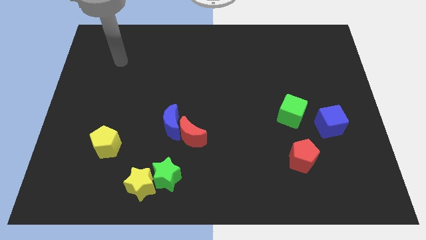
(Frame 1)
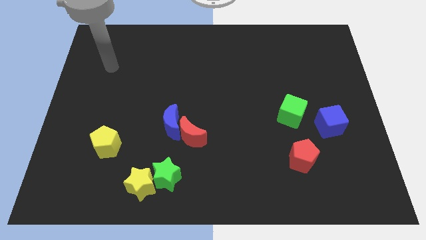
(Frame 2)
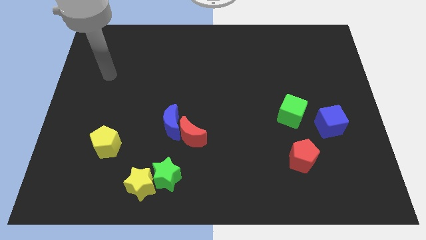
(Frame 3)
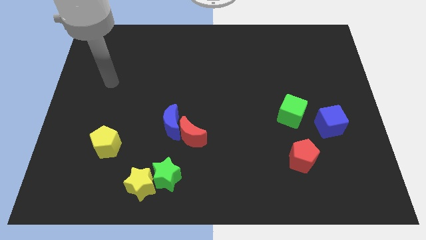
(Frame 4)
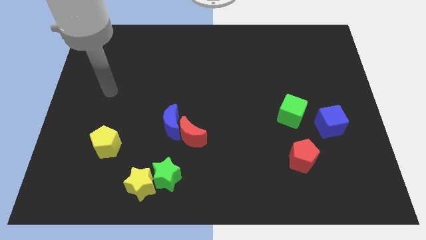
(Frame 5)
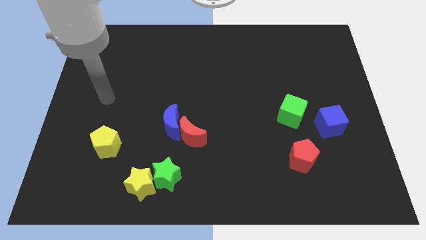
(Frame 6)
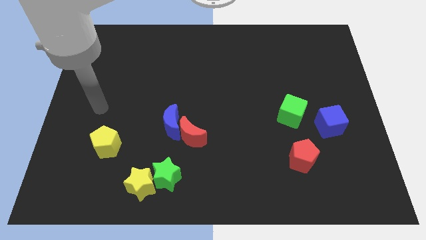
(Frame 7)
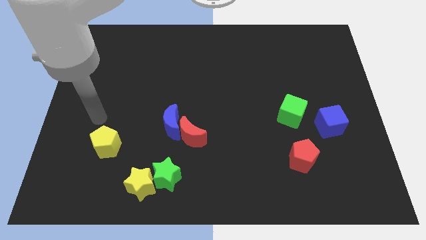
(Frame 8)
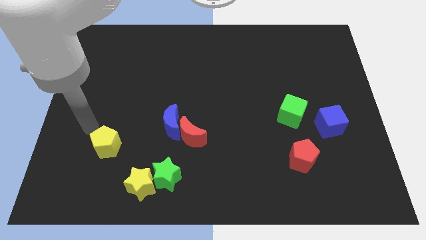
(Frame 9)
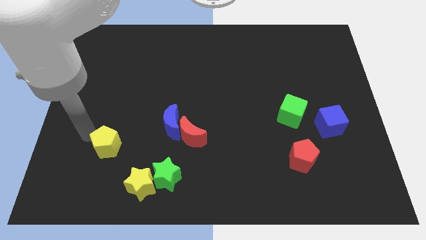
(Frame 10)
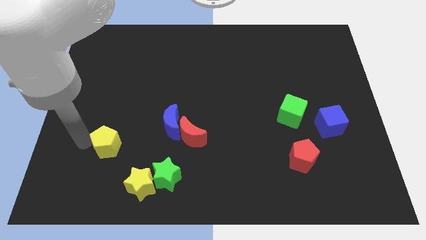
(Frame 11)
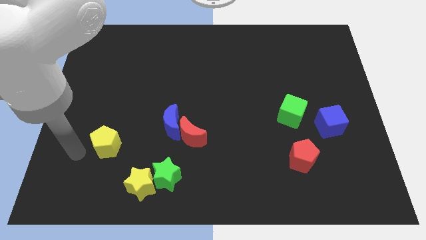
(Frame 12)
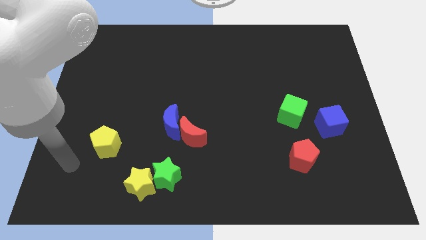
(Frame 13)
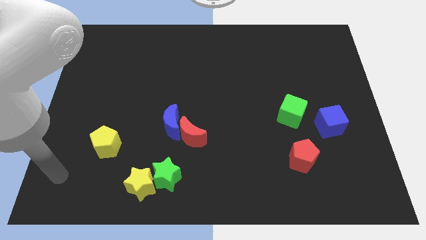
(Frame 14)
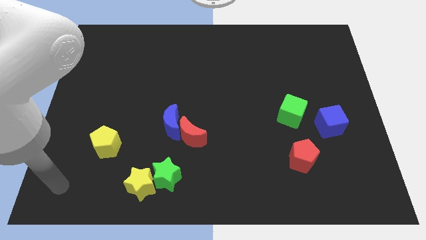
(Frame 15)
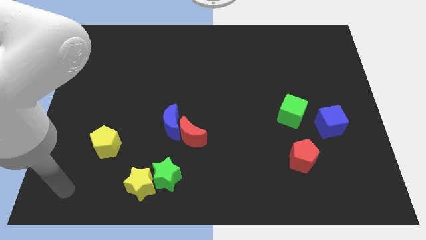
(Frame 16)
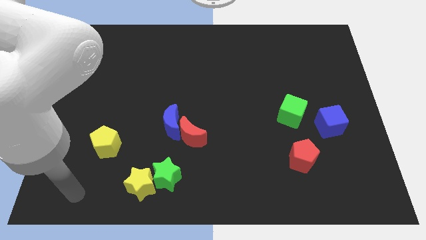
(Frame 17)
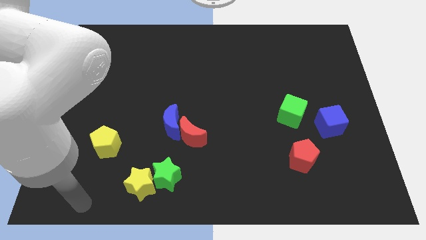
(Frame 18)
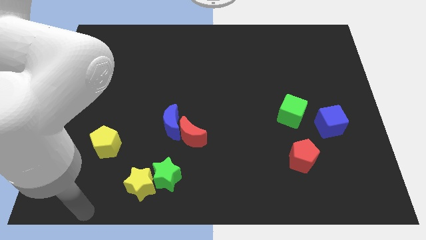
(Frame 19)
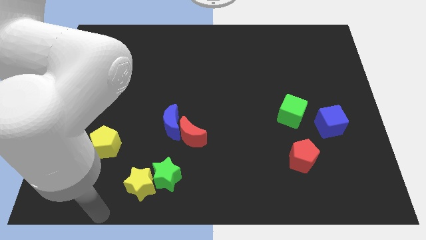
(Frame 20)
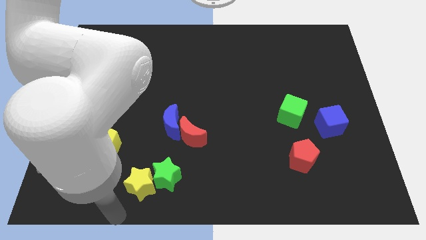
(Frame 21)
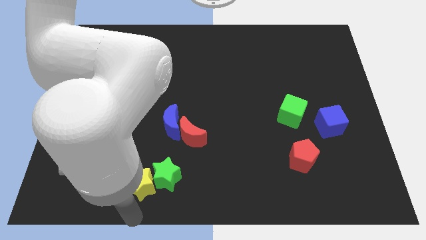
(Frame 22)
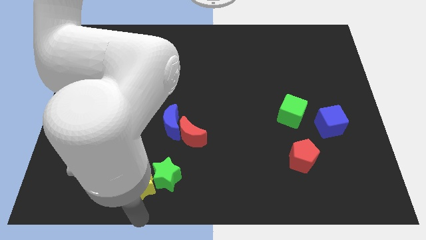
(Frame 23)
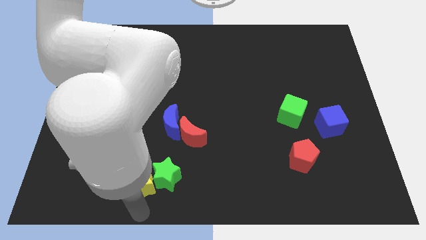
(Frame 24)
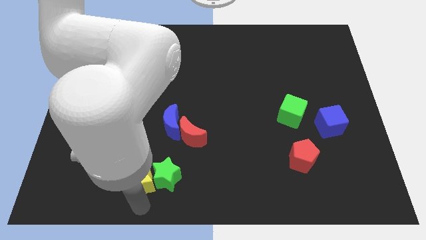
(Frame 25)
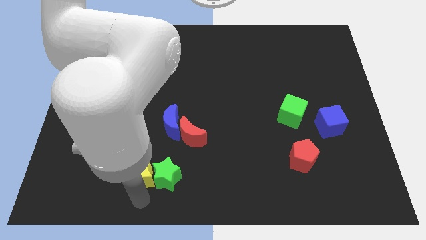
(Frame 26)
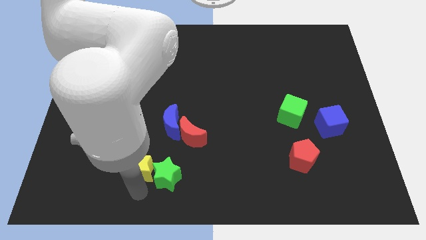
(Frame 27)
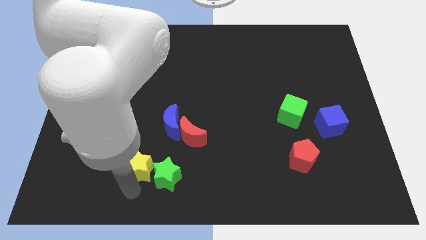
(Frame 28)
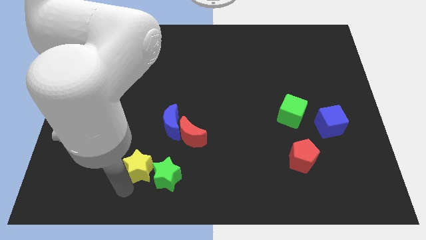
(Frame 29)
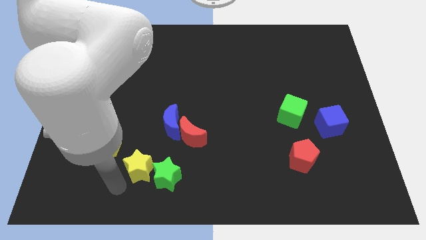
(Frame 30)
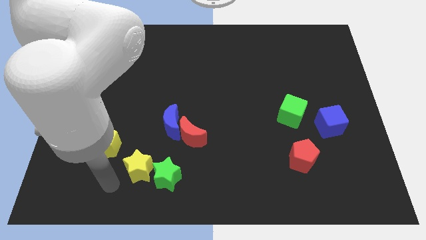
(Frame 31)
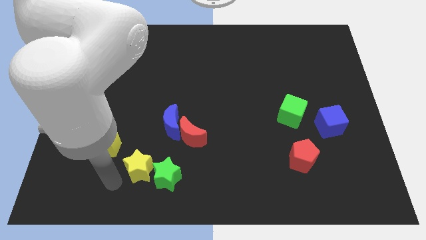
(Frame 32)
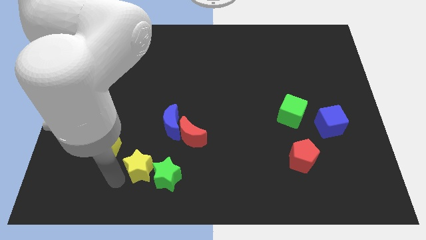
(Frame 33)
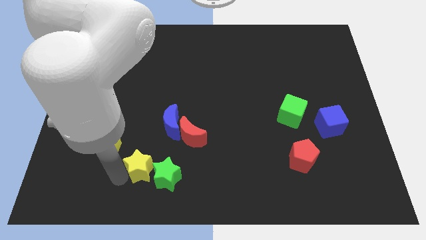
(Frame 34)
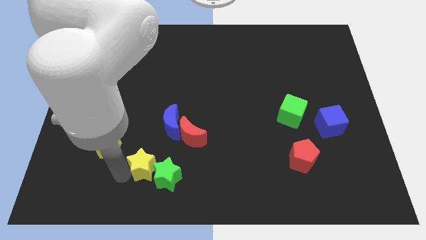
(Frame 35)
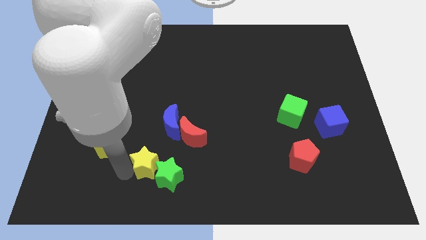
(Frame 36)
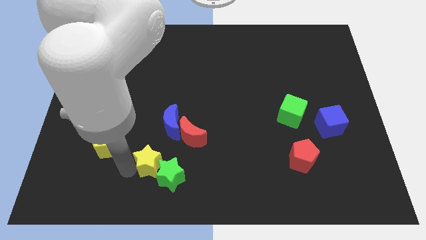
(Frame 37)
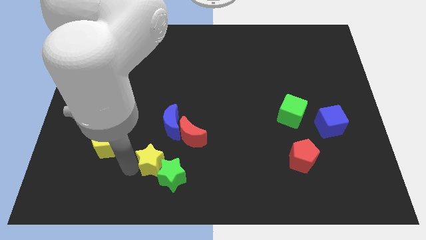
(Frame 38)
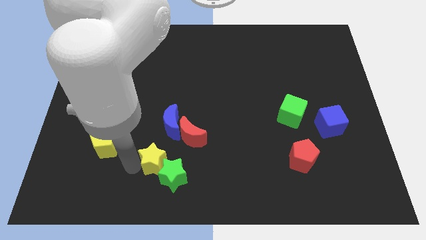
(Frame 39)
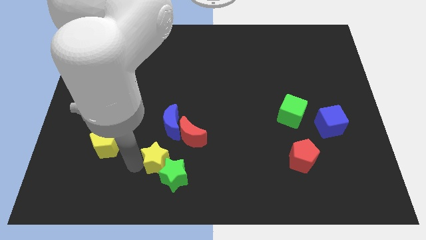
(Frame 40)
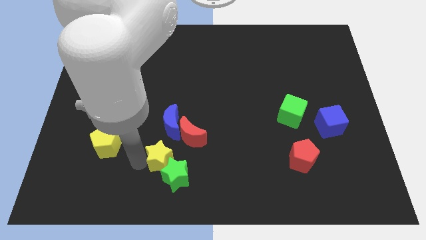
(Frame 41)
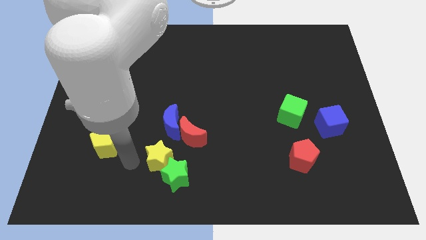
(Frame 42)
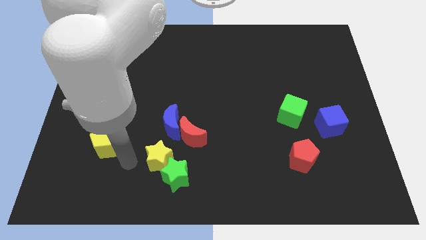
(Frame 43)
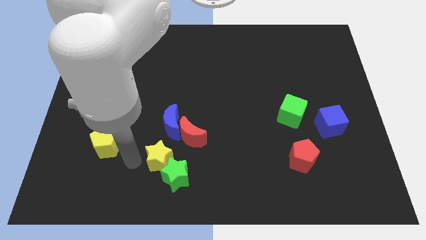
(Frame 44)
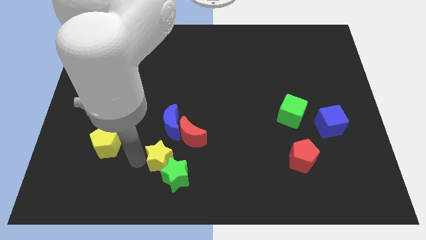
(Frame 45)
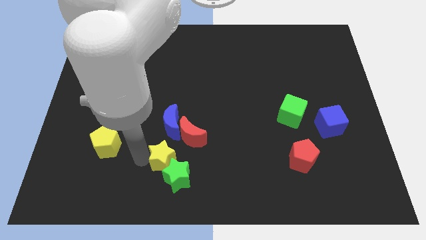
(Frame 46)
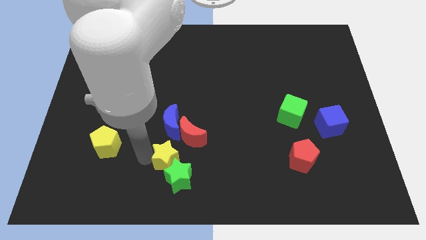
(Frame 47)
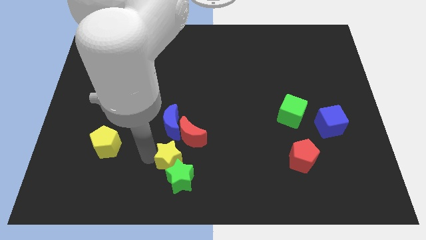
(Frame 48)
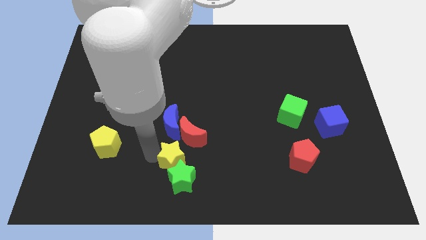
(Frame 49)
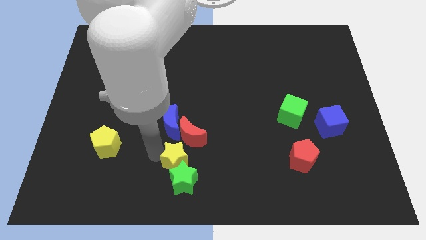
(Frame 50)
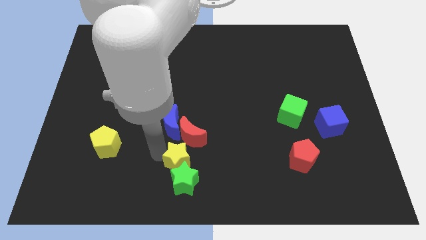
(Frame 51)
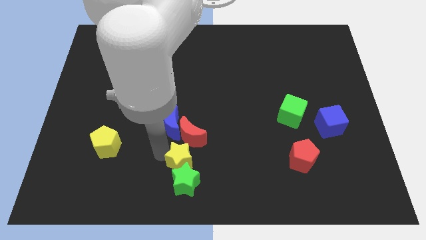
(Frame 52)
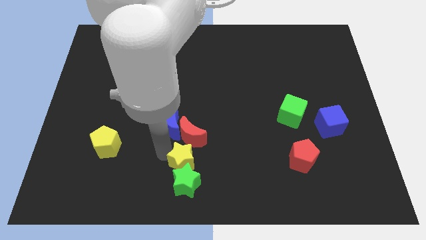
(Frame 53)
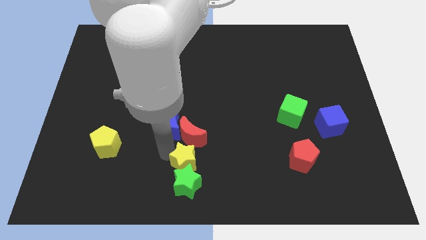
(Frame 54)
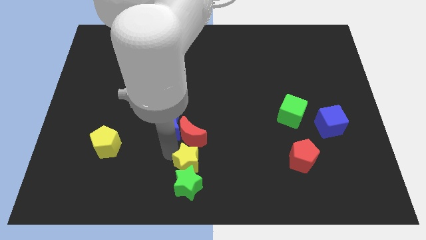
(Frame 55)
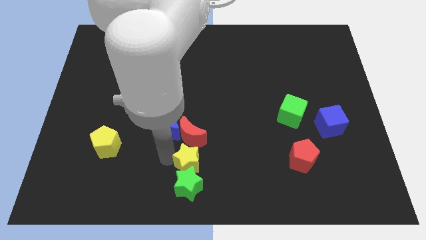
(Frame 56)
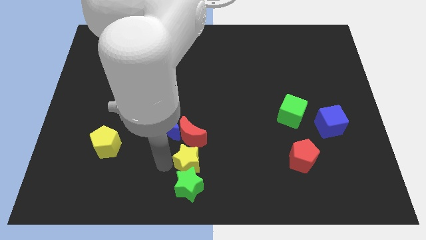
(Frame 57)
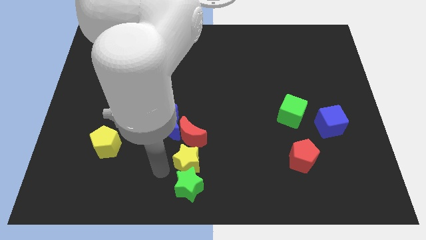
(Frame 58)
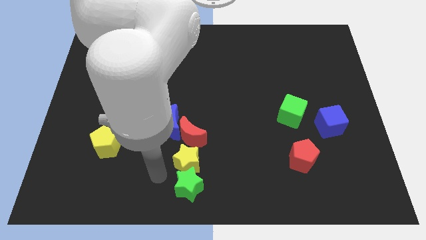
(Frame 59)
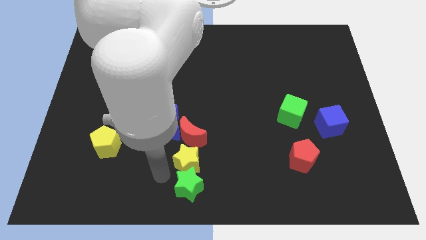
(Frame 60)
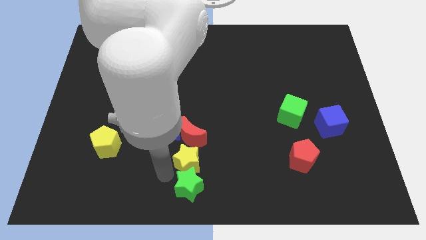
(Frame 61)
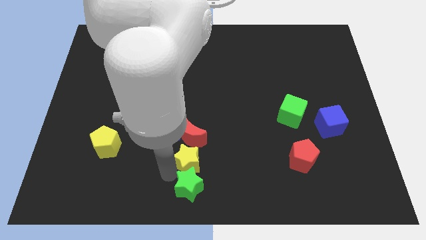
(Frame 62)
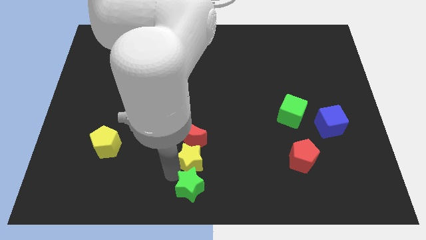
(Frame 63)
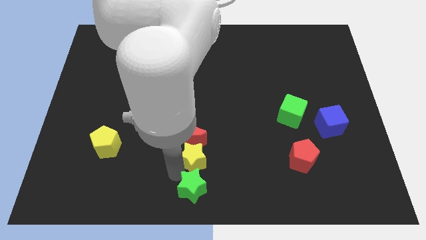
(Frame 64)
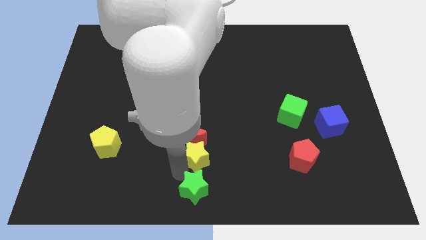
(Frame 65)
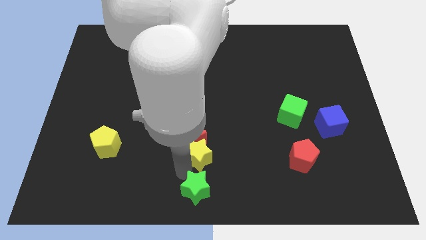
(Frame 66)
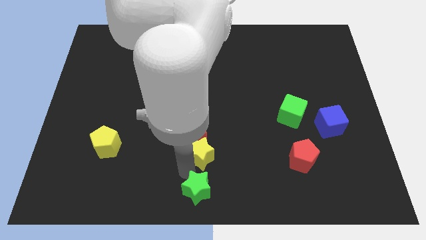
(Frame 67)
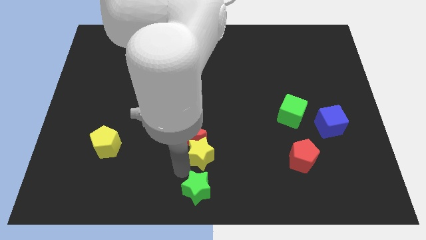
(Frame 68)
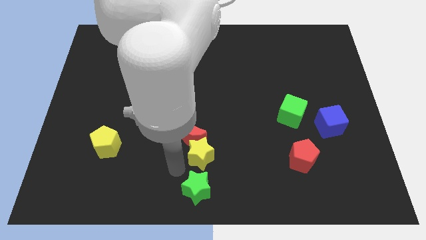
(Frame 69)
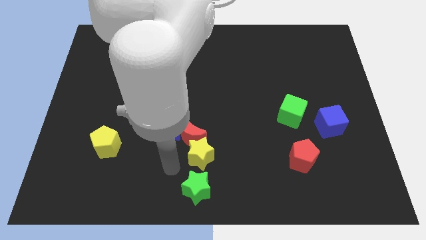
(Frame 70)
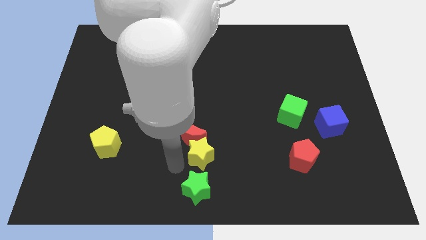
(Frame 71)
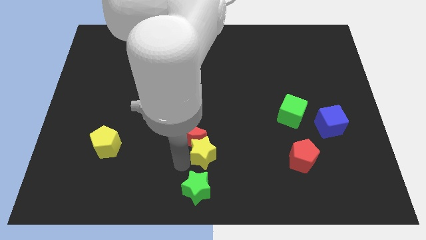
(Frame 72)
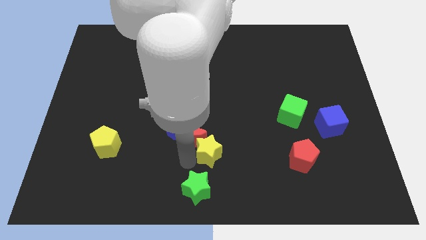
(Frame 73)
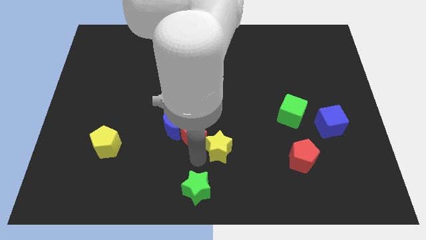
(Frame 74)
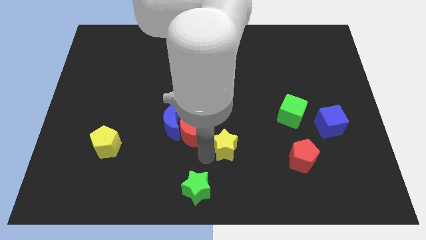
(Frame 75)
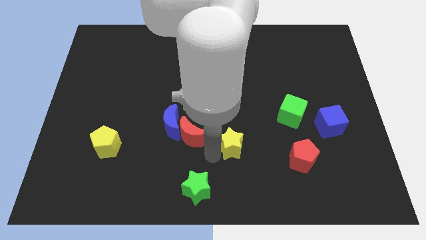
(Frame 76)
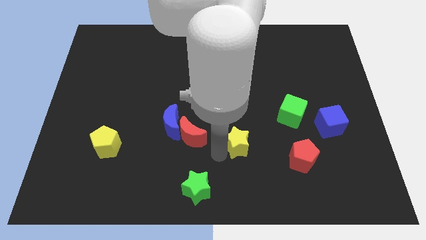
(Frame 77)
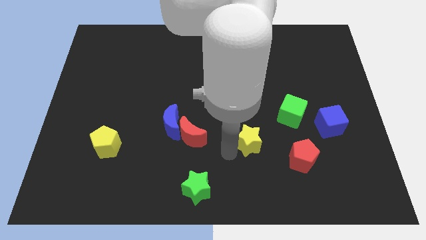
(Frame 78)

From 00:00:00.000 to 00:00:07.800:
push the yellow star diagonally upwards and to the right
